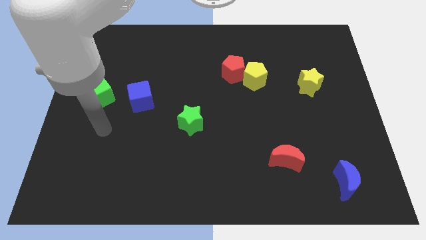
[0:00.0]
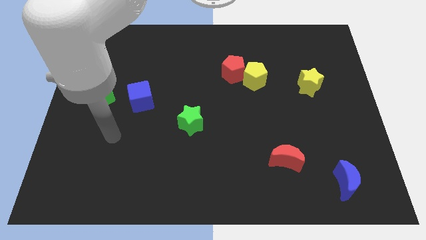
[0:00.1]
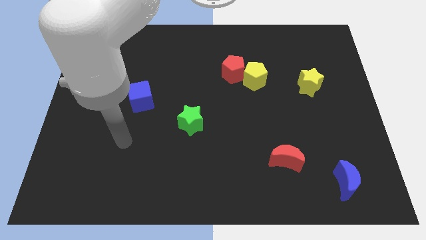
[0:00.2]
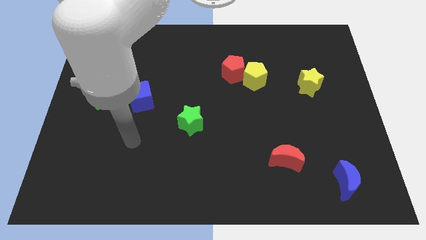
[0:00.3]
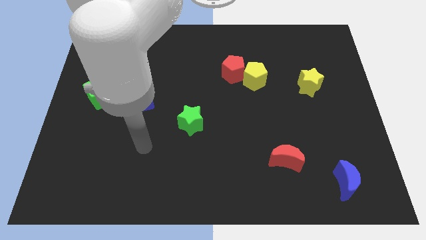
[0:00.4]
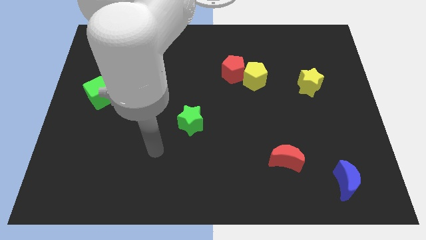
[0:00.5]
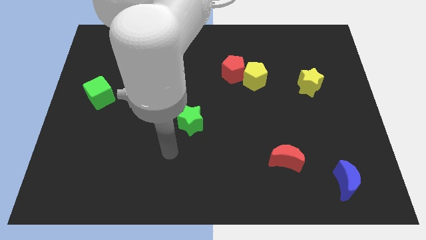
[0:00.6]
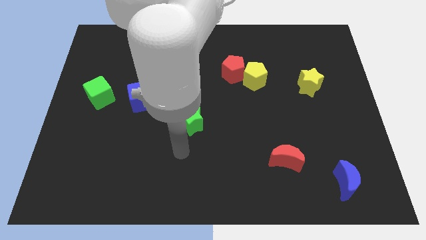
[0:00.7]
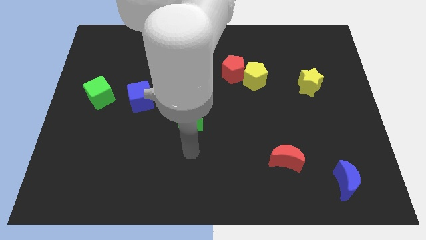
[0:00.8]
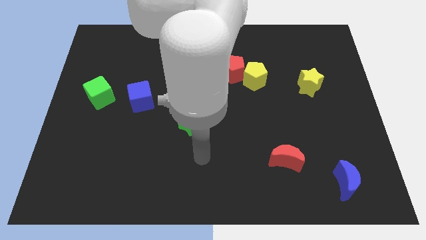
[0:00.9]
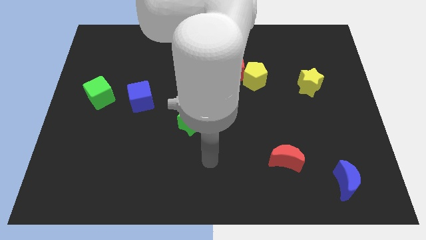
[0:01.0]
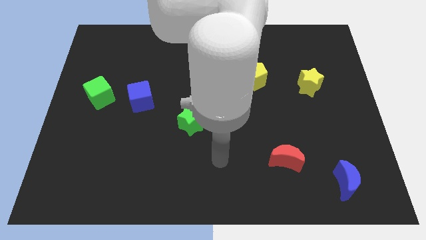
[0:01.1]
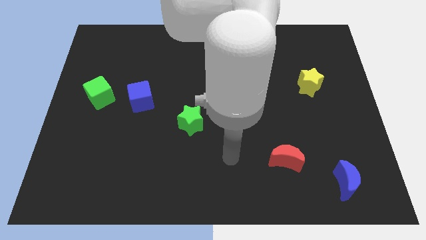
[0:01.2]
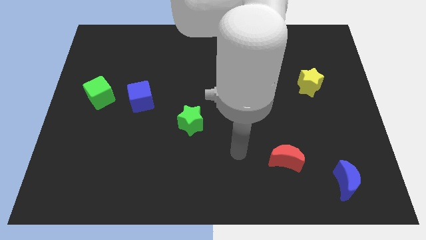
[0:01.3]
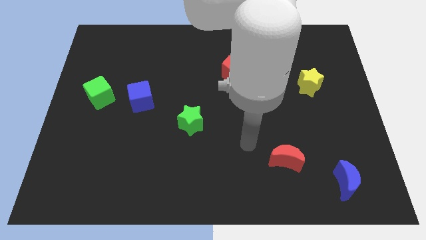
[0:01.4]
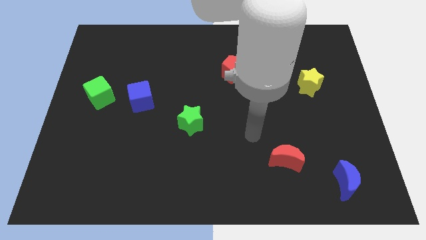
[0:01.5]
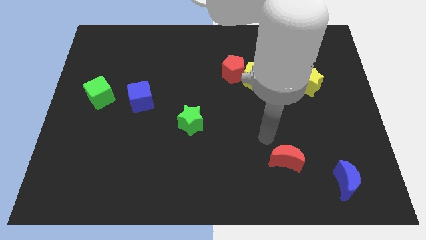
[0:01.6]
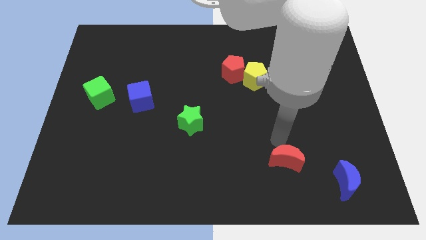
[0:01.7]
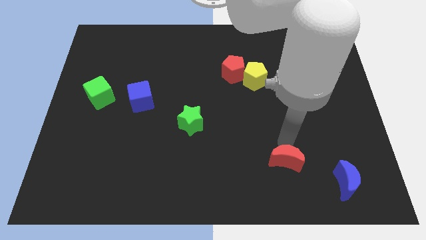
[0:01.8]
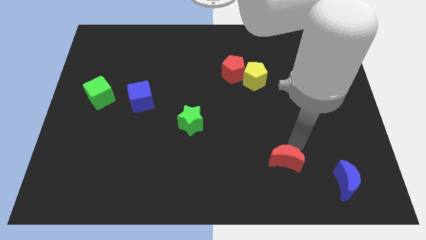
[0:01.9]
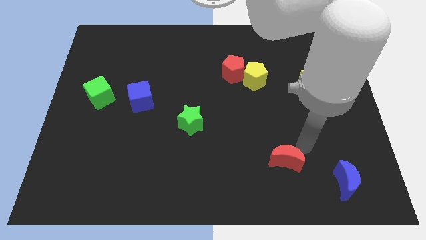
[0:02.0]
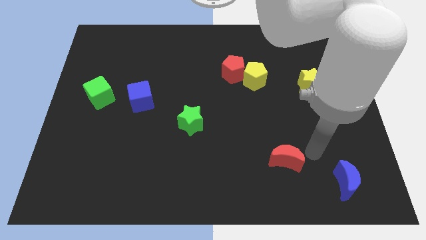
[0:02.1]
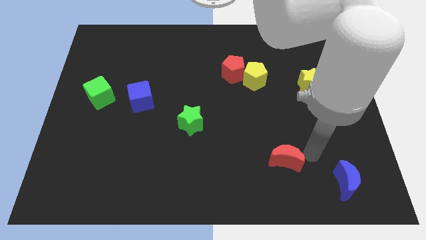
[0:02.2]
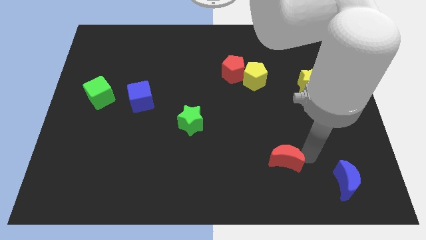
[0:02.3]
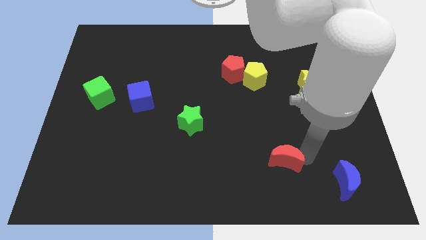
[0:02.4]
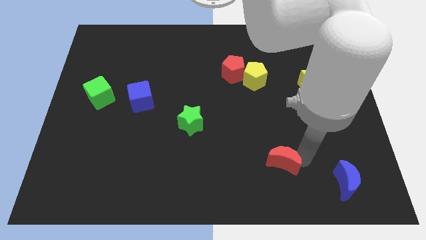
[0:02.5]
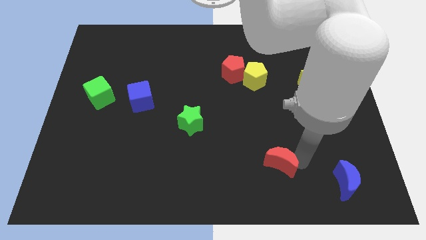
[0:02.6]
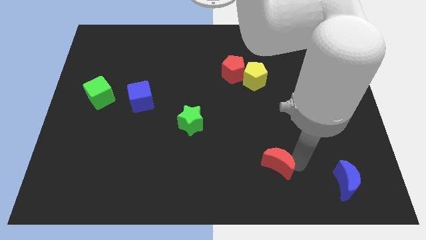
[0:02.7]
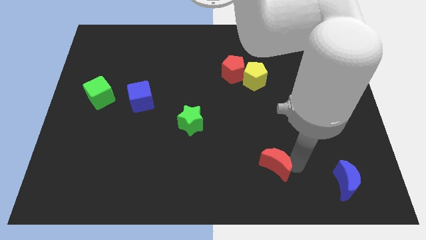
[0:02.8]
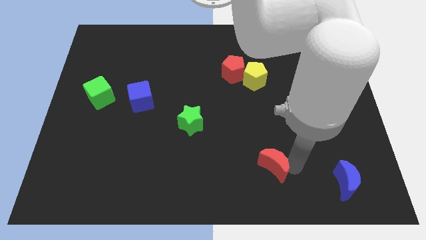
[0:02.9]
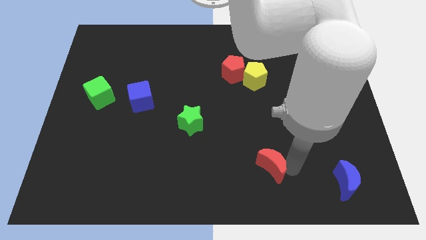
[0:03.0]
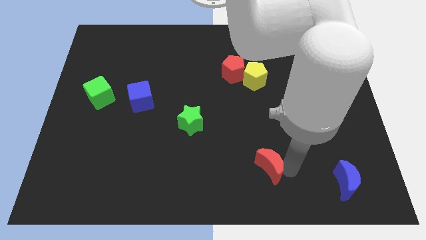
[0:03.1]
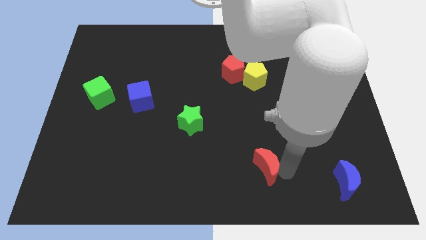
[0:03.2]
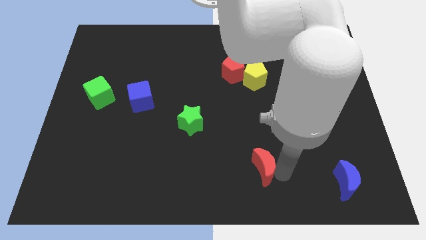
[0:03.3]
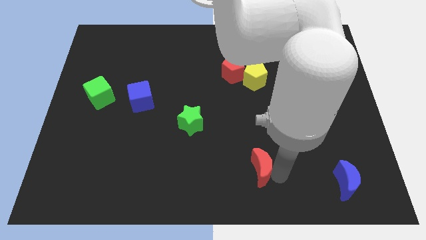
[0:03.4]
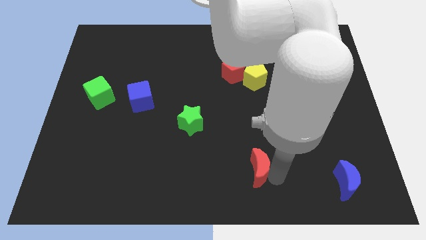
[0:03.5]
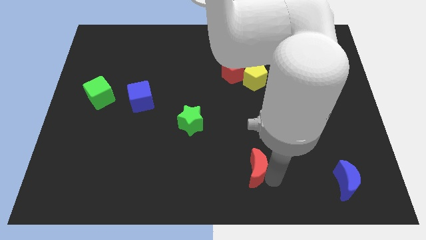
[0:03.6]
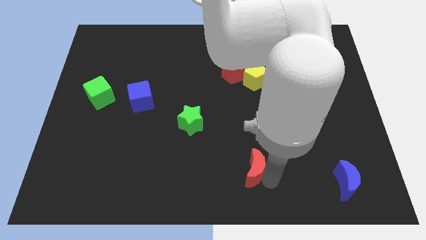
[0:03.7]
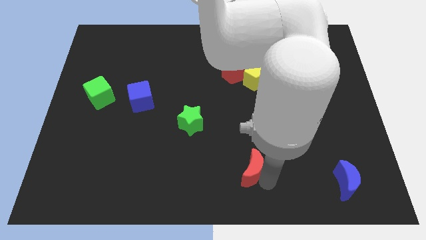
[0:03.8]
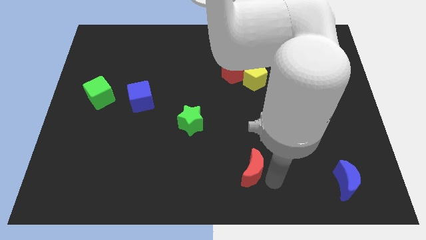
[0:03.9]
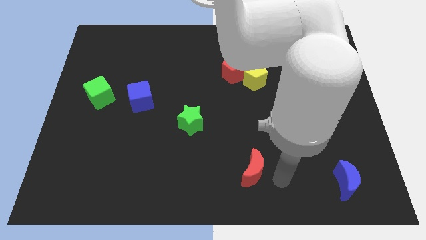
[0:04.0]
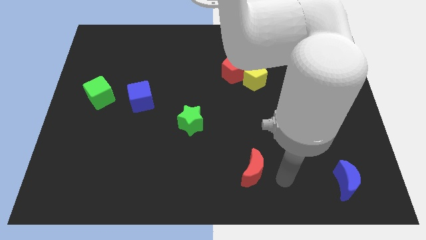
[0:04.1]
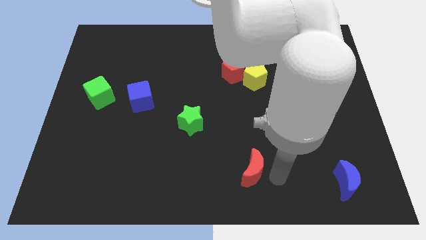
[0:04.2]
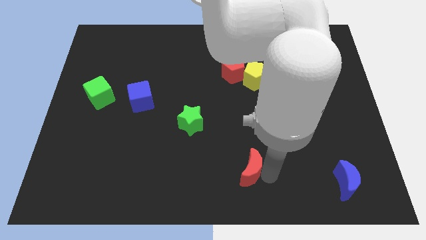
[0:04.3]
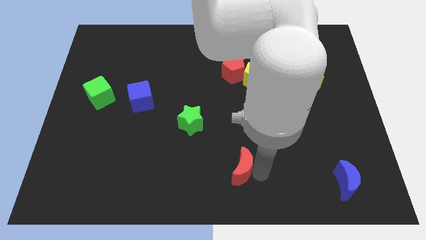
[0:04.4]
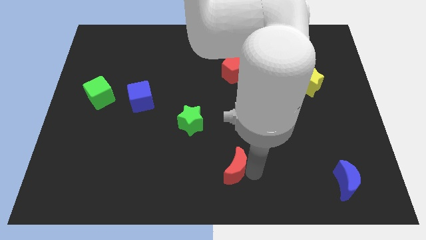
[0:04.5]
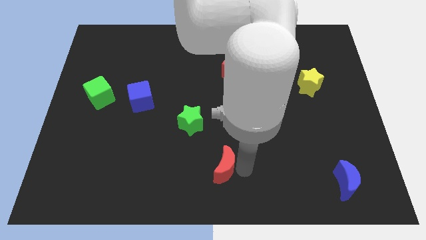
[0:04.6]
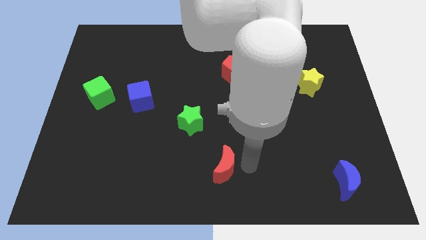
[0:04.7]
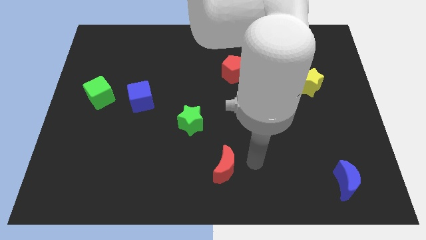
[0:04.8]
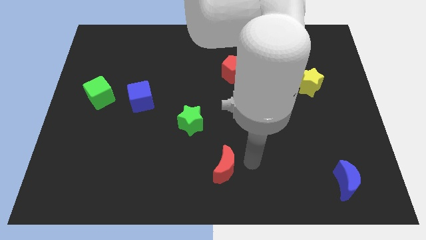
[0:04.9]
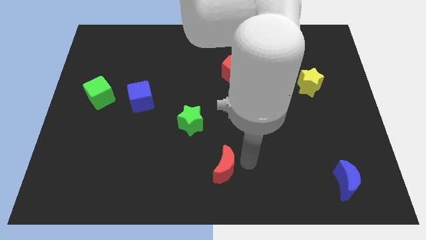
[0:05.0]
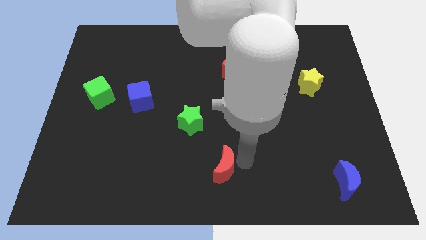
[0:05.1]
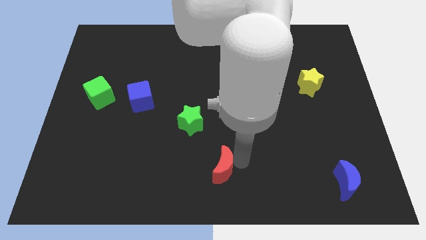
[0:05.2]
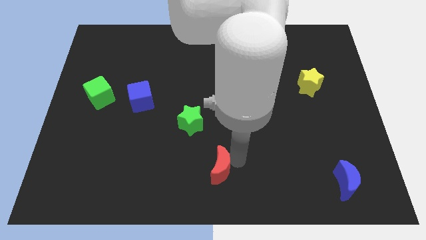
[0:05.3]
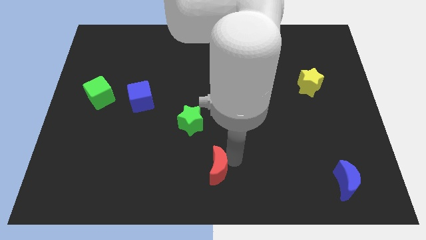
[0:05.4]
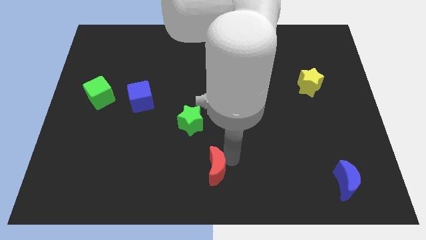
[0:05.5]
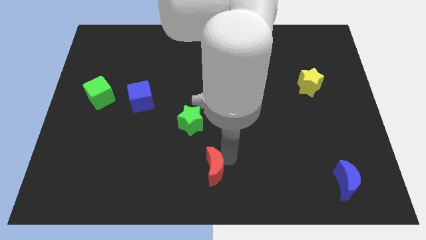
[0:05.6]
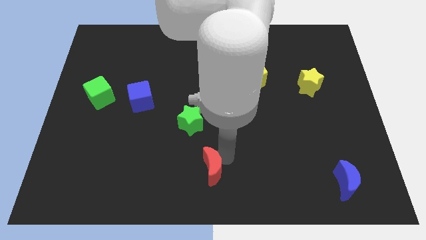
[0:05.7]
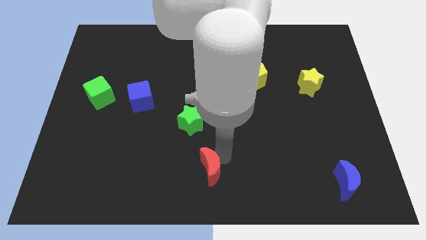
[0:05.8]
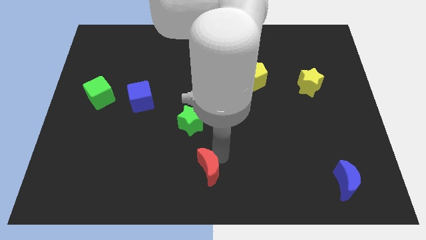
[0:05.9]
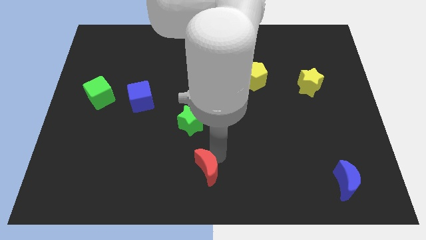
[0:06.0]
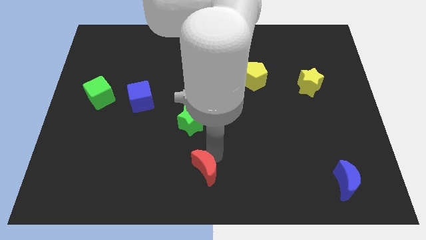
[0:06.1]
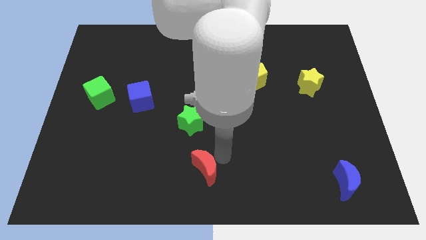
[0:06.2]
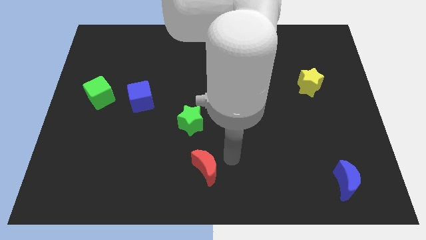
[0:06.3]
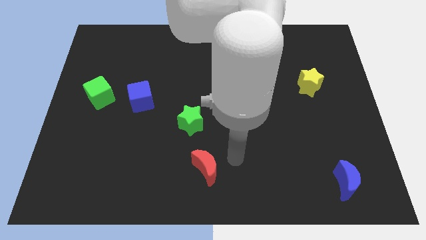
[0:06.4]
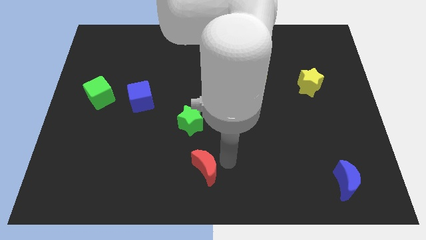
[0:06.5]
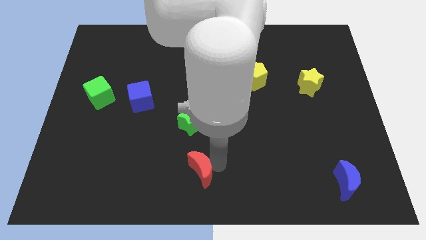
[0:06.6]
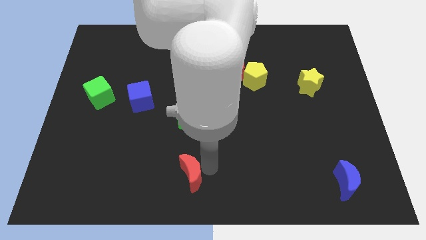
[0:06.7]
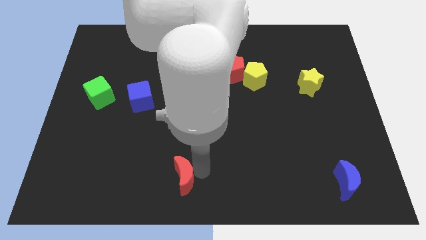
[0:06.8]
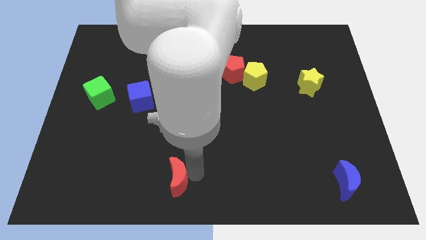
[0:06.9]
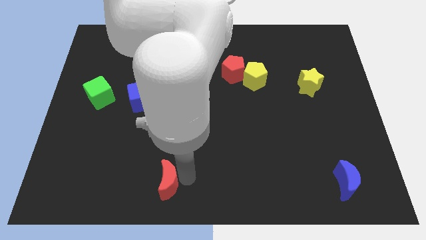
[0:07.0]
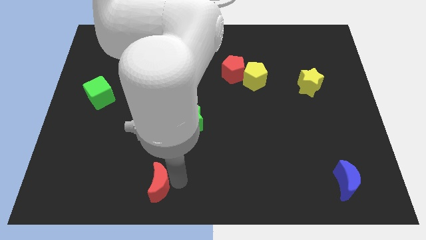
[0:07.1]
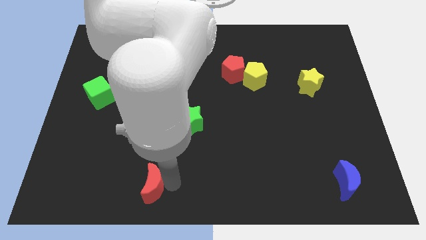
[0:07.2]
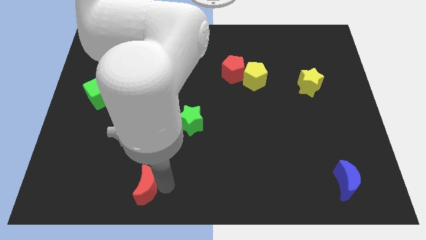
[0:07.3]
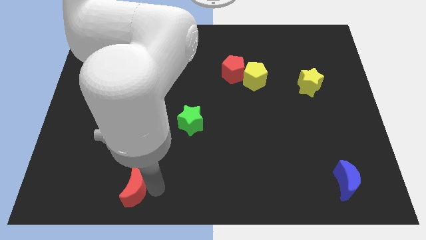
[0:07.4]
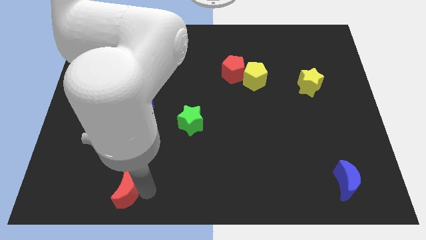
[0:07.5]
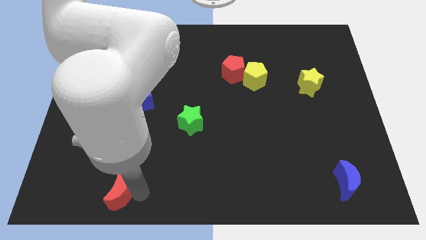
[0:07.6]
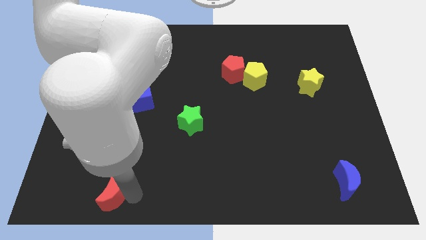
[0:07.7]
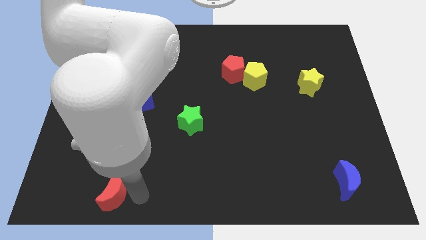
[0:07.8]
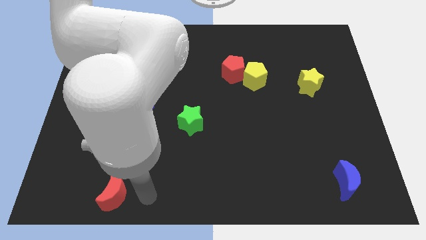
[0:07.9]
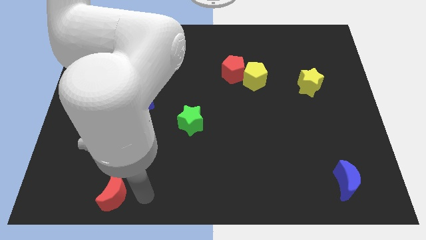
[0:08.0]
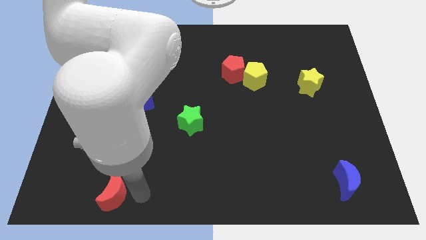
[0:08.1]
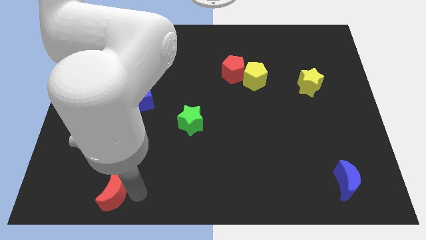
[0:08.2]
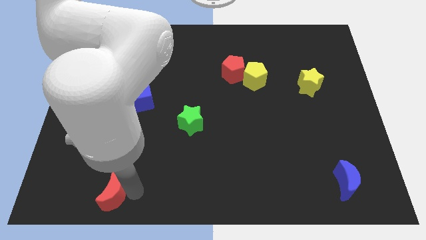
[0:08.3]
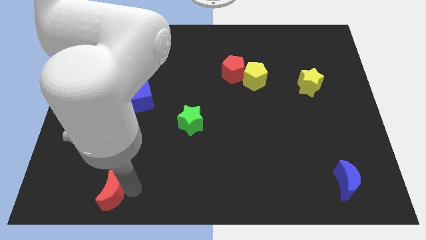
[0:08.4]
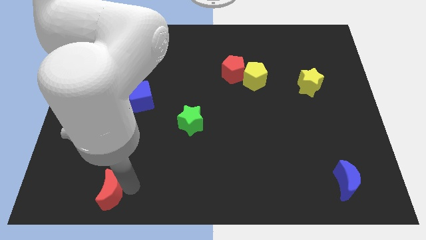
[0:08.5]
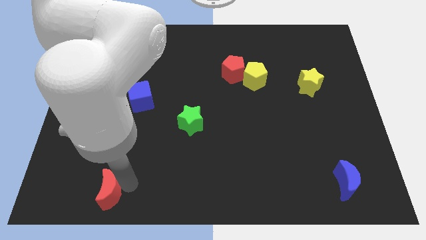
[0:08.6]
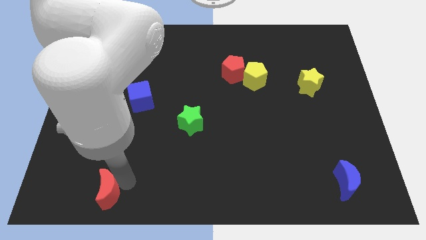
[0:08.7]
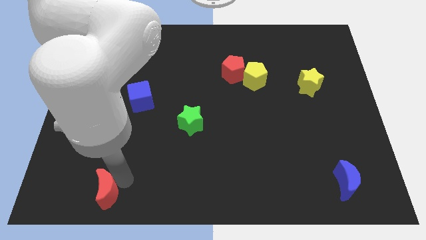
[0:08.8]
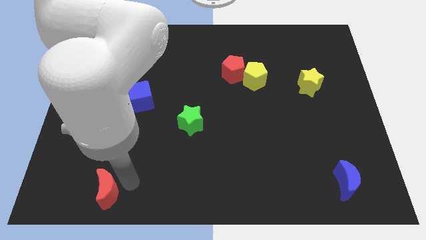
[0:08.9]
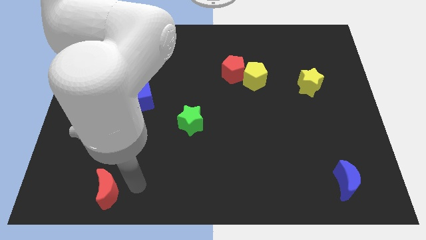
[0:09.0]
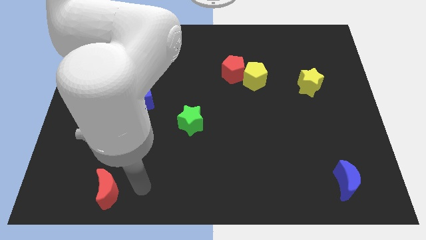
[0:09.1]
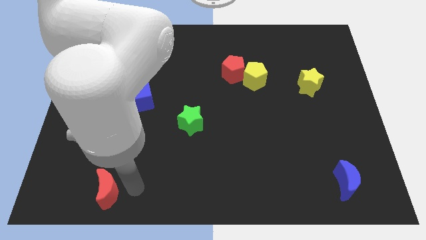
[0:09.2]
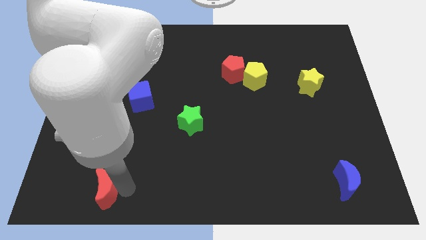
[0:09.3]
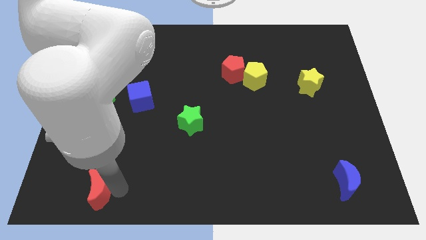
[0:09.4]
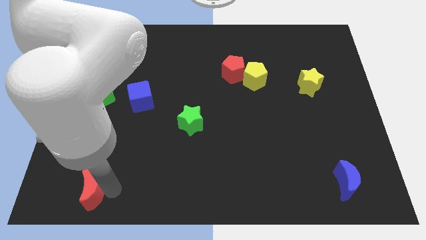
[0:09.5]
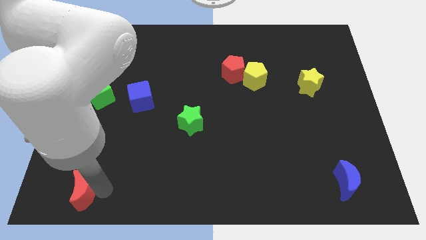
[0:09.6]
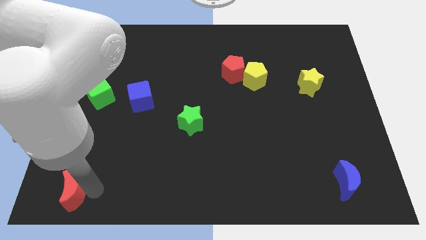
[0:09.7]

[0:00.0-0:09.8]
put the red moon to the bottom left
